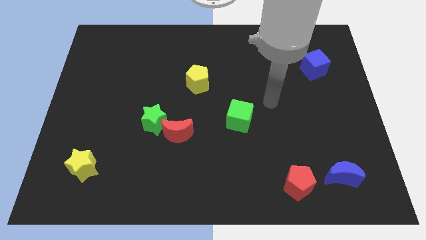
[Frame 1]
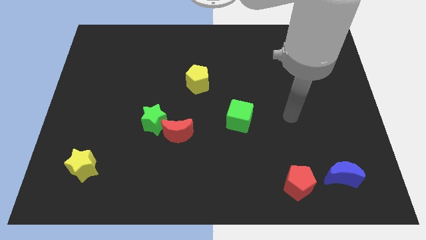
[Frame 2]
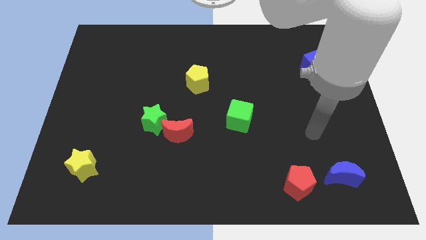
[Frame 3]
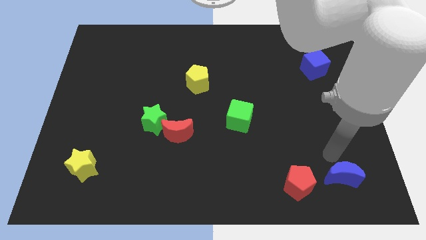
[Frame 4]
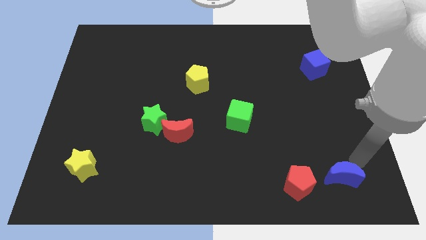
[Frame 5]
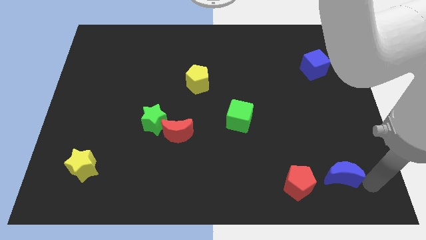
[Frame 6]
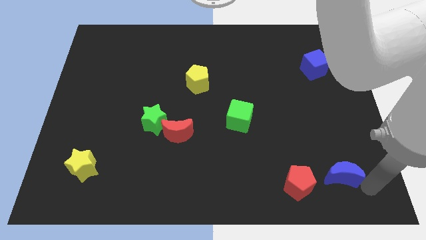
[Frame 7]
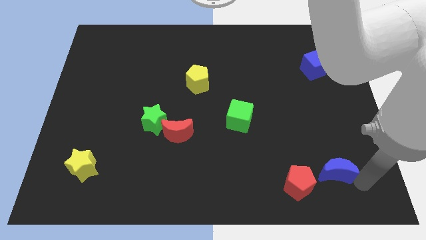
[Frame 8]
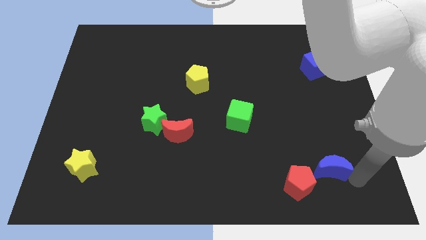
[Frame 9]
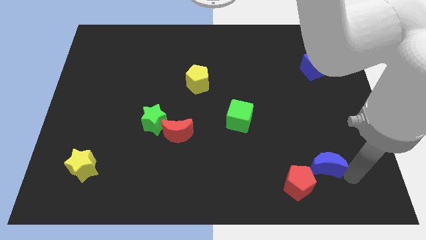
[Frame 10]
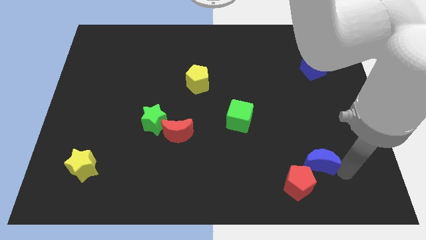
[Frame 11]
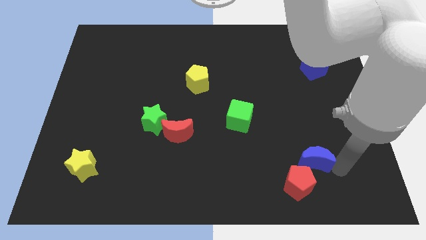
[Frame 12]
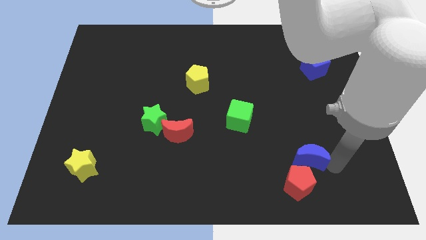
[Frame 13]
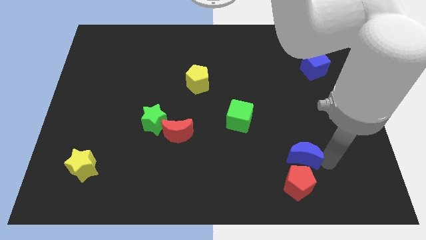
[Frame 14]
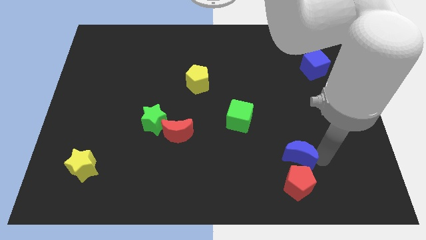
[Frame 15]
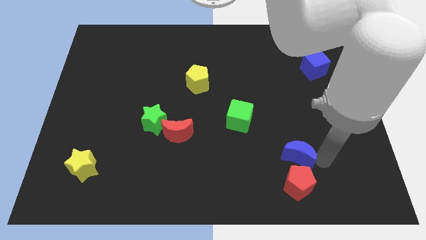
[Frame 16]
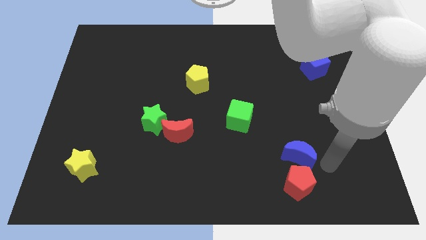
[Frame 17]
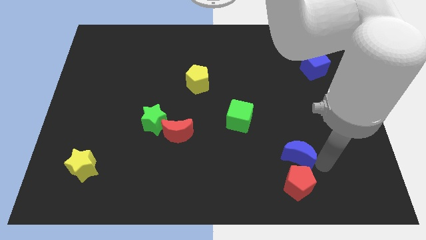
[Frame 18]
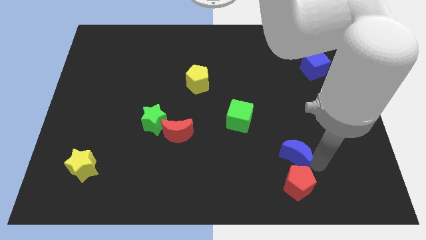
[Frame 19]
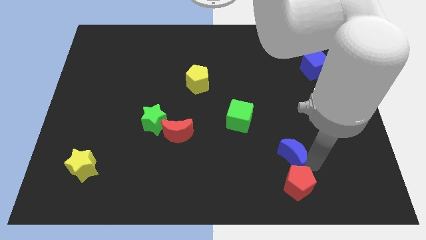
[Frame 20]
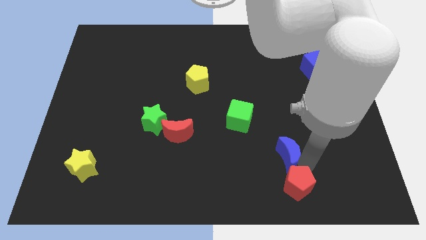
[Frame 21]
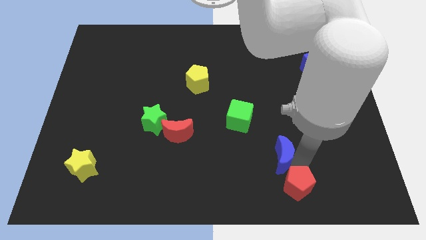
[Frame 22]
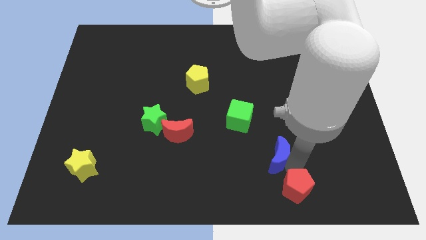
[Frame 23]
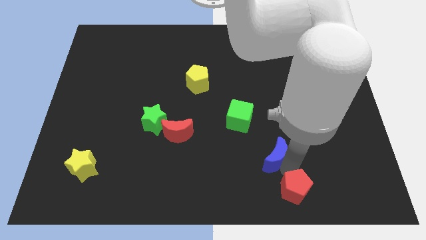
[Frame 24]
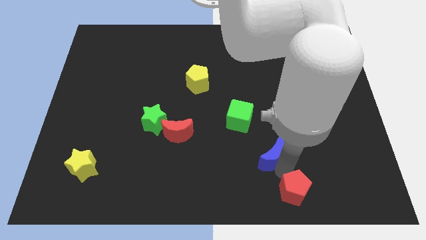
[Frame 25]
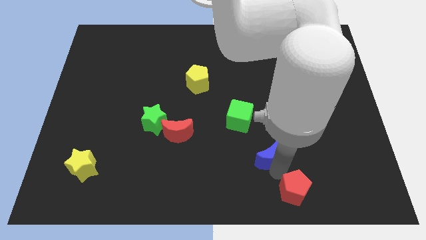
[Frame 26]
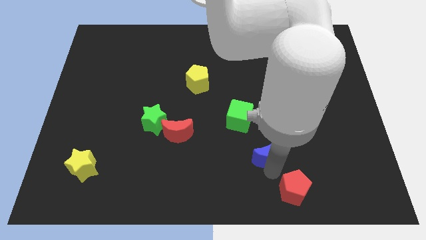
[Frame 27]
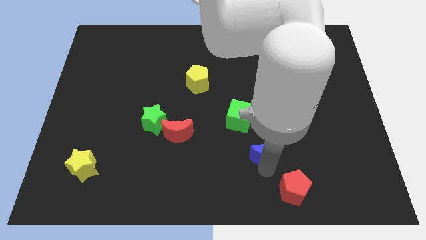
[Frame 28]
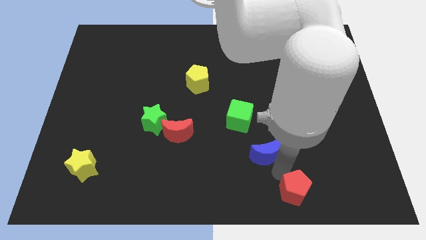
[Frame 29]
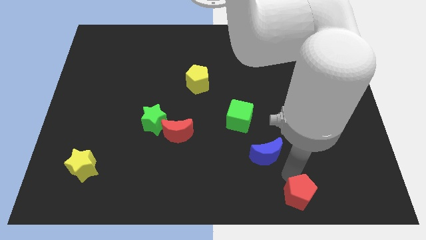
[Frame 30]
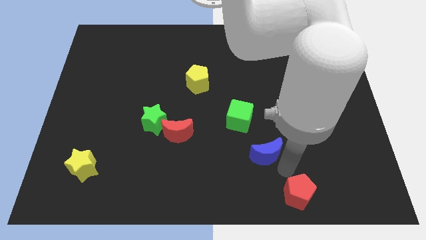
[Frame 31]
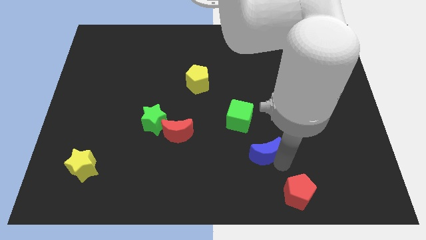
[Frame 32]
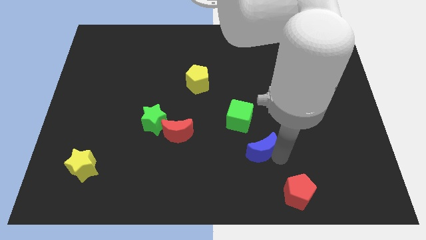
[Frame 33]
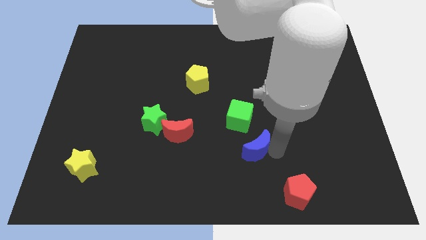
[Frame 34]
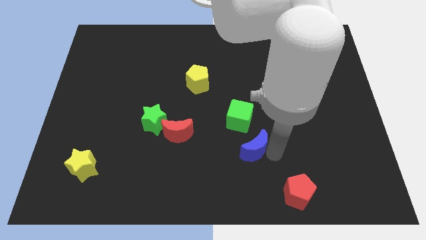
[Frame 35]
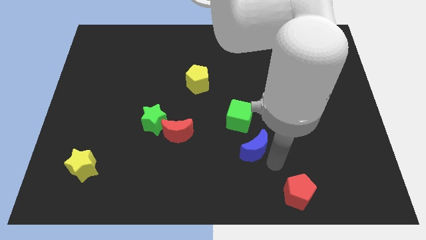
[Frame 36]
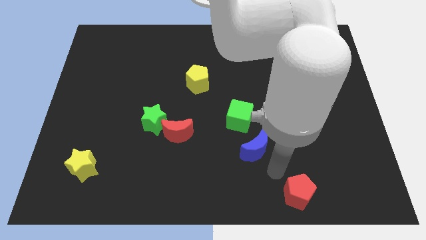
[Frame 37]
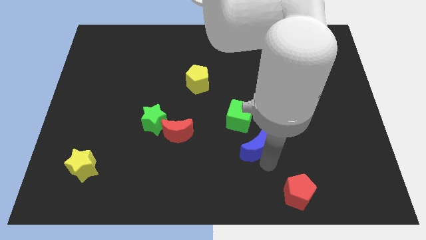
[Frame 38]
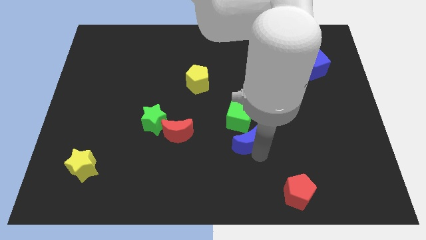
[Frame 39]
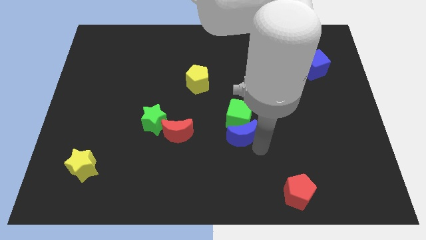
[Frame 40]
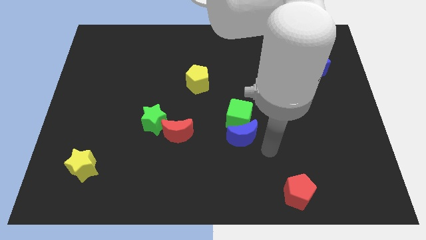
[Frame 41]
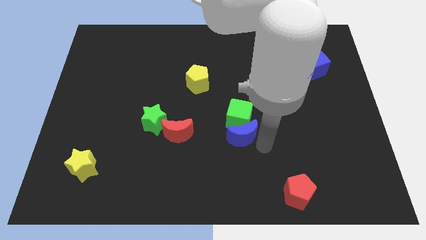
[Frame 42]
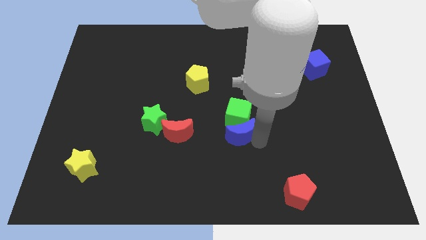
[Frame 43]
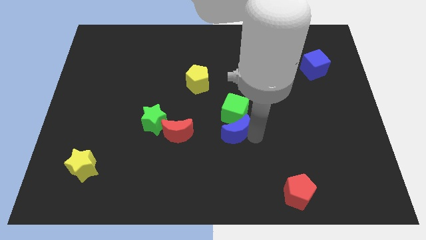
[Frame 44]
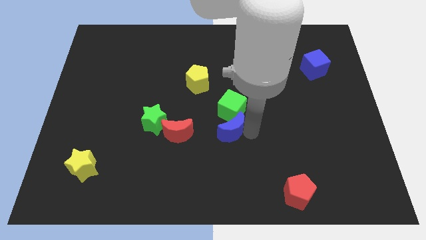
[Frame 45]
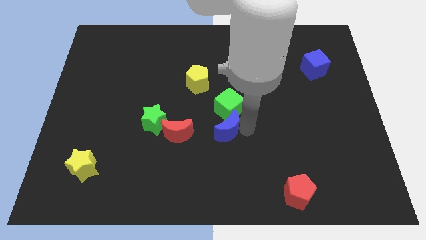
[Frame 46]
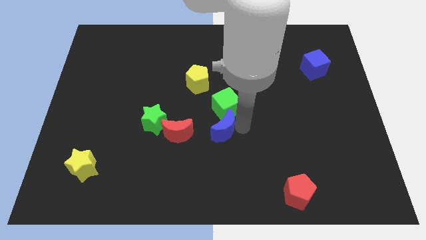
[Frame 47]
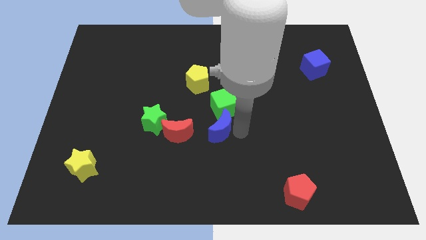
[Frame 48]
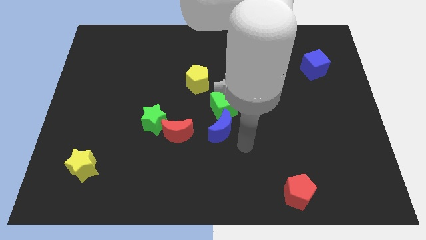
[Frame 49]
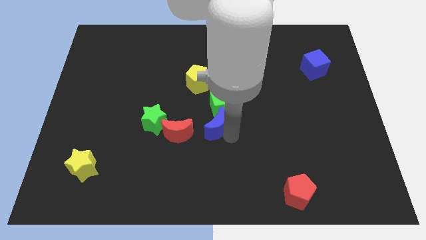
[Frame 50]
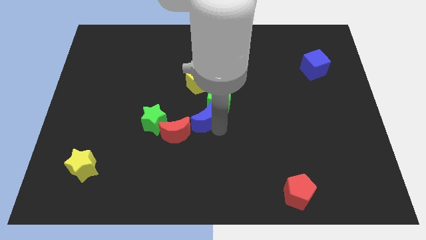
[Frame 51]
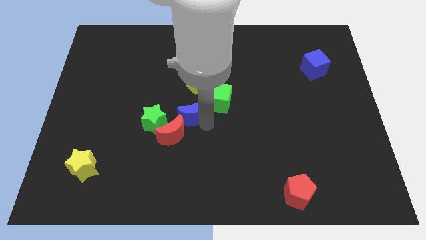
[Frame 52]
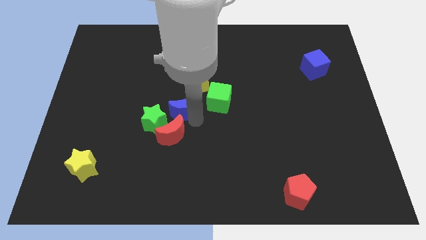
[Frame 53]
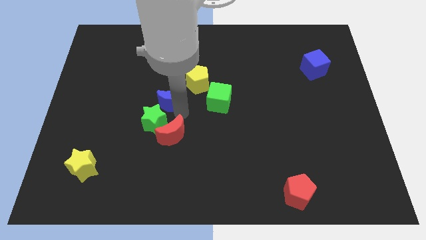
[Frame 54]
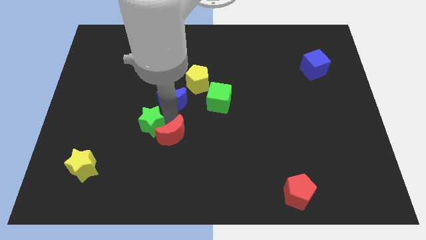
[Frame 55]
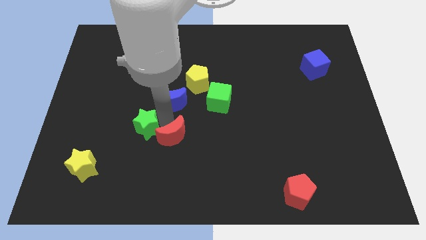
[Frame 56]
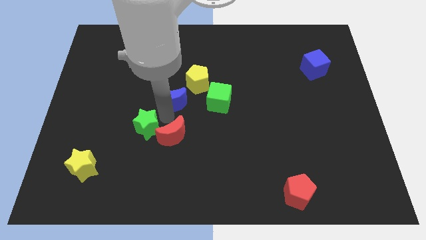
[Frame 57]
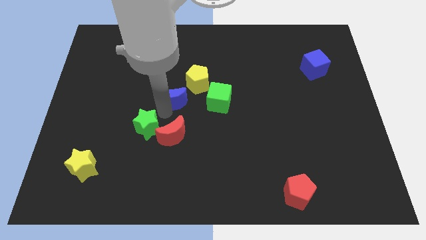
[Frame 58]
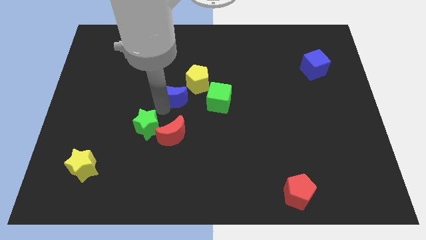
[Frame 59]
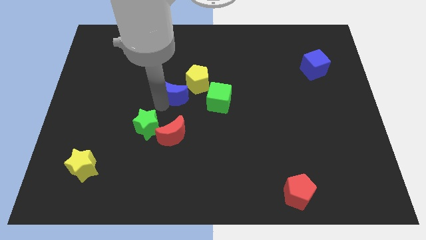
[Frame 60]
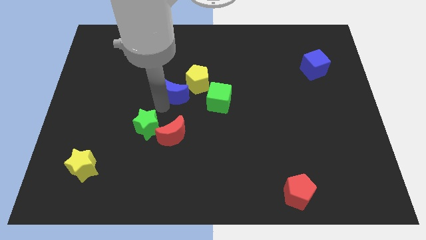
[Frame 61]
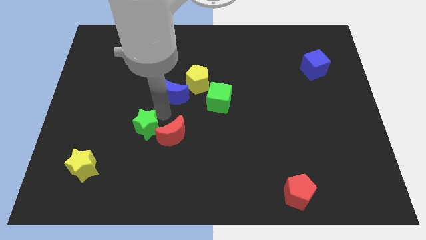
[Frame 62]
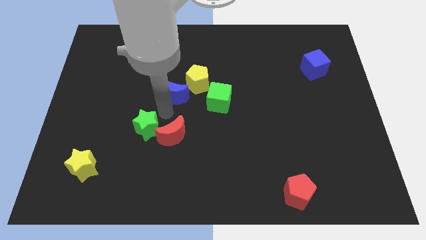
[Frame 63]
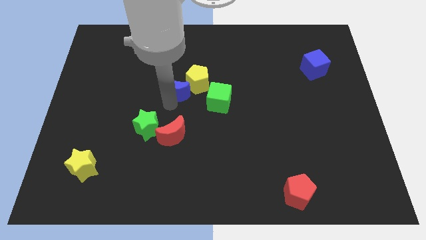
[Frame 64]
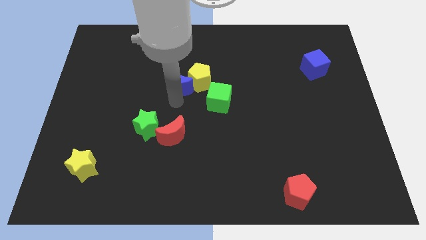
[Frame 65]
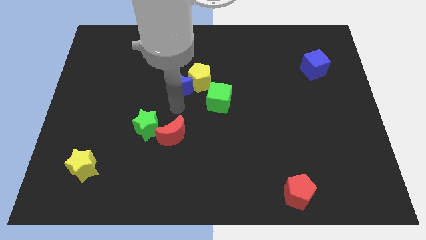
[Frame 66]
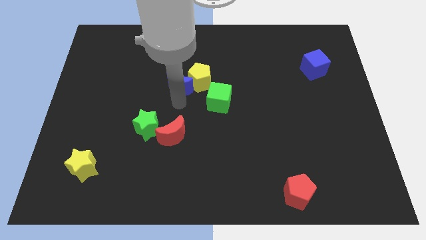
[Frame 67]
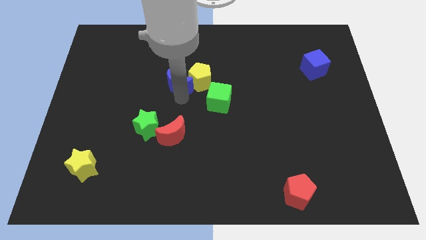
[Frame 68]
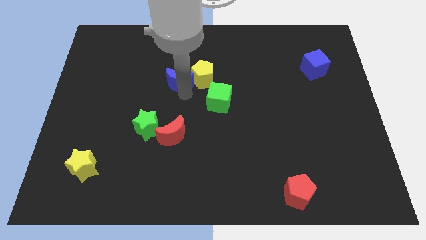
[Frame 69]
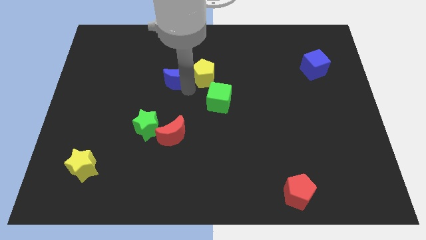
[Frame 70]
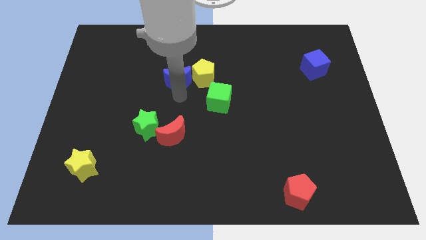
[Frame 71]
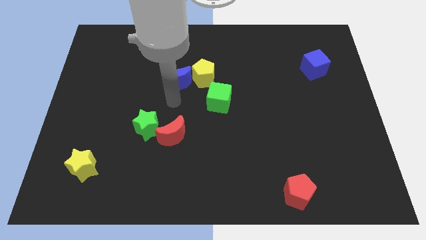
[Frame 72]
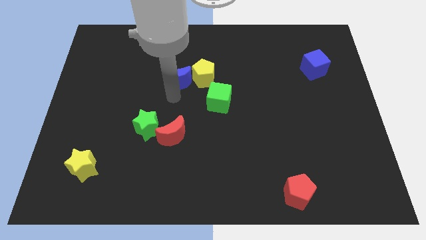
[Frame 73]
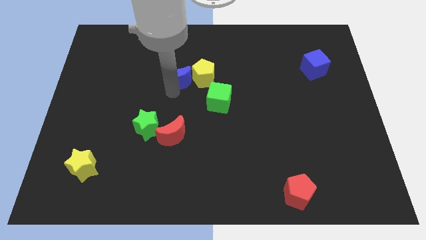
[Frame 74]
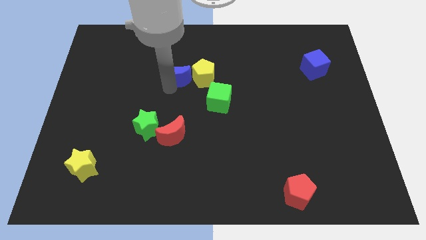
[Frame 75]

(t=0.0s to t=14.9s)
put the blue moon to the top left side of the yellow pentagon

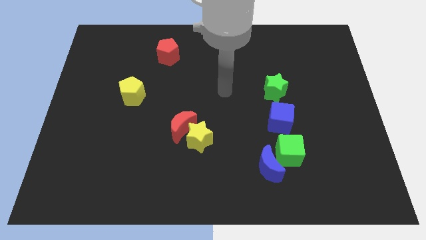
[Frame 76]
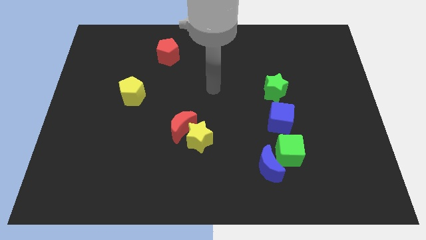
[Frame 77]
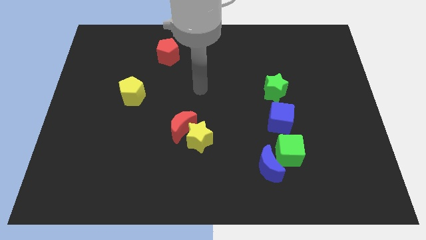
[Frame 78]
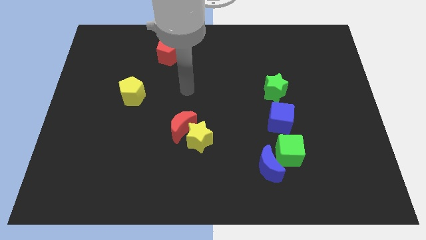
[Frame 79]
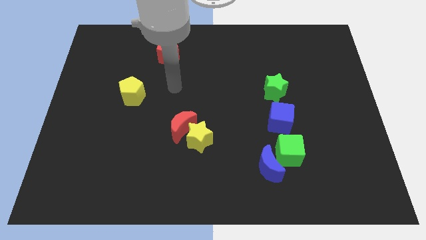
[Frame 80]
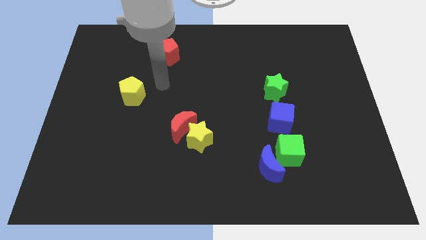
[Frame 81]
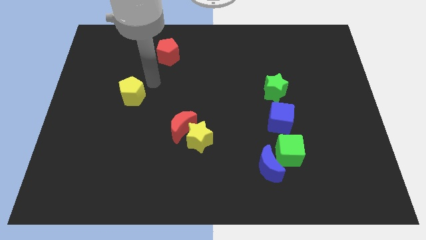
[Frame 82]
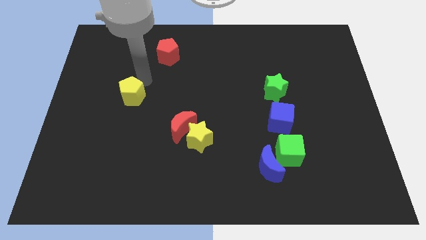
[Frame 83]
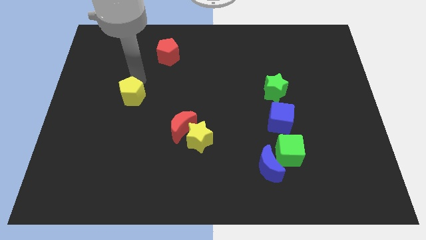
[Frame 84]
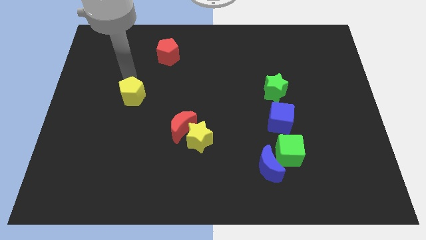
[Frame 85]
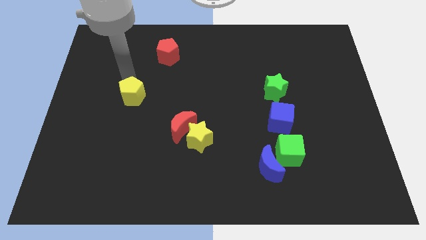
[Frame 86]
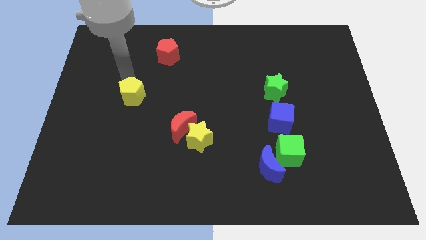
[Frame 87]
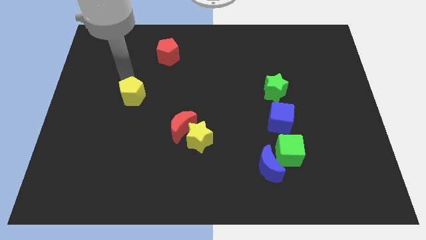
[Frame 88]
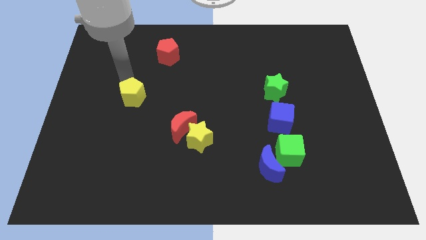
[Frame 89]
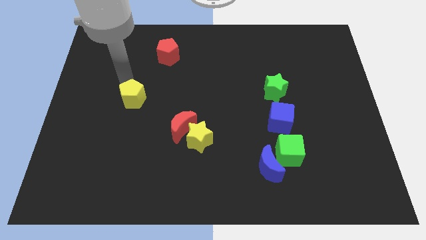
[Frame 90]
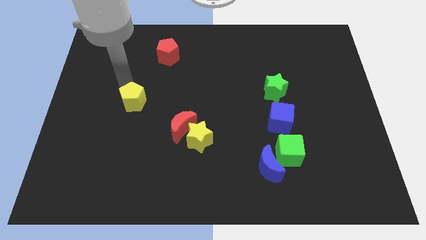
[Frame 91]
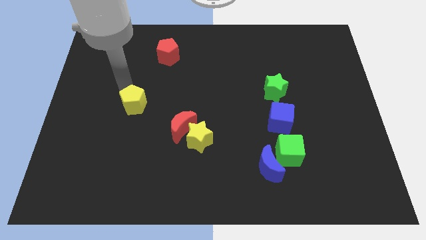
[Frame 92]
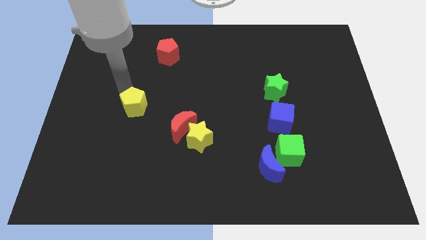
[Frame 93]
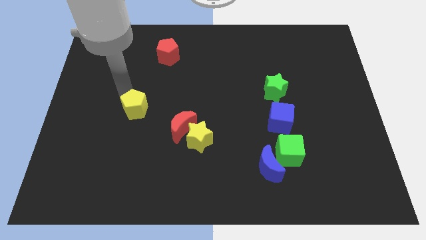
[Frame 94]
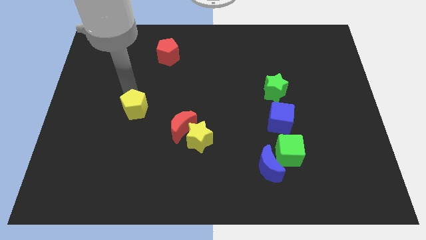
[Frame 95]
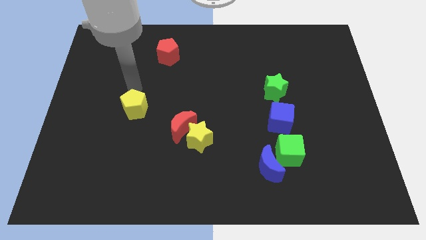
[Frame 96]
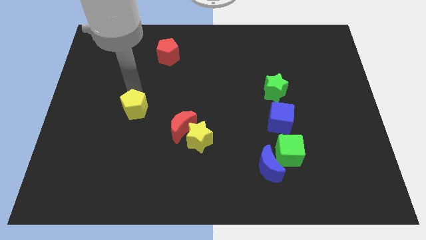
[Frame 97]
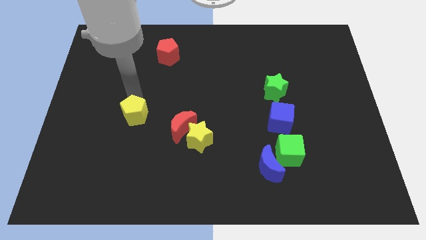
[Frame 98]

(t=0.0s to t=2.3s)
slide the yellow pentagon just left of the red moon
